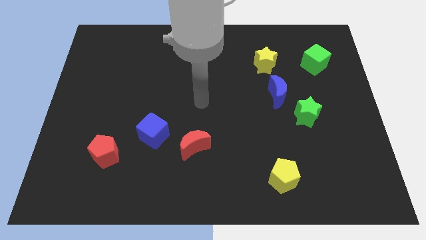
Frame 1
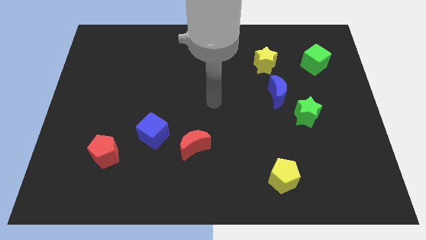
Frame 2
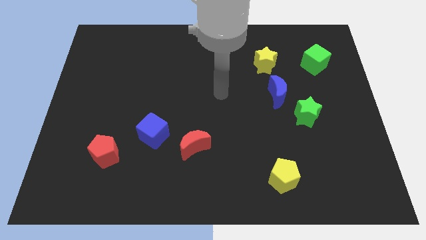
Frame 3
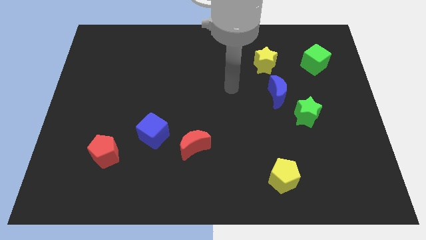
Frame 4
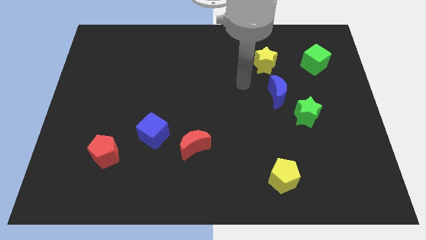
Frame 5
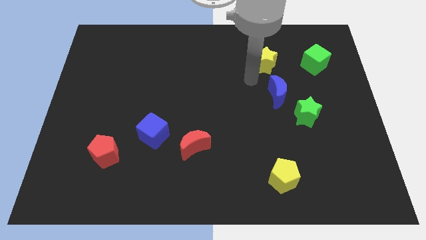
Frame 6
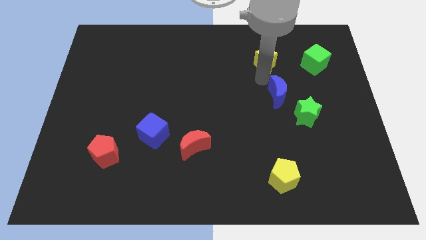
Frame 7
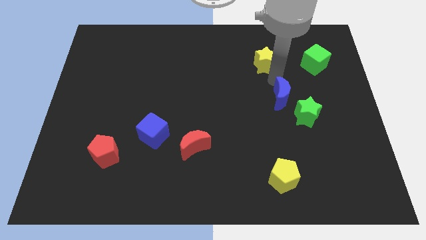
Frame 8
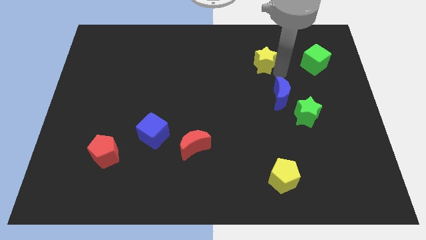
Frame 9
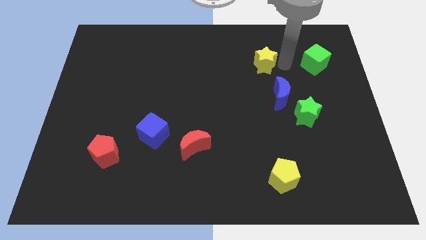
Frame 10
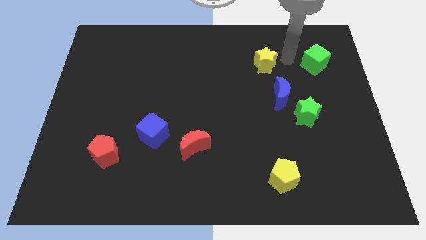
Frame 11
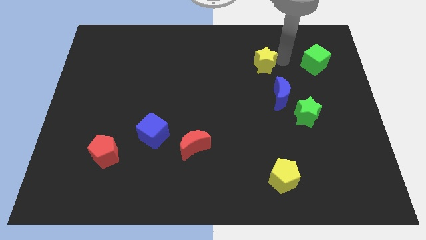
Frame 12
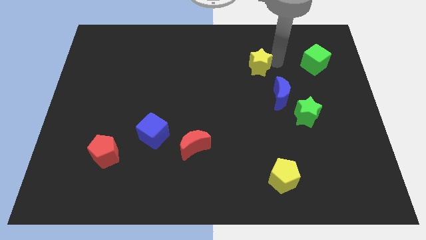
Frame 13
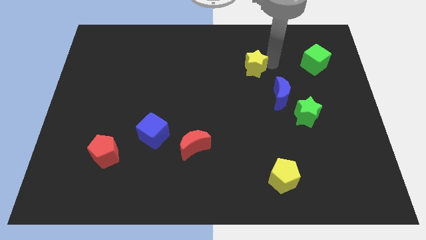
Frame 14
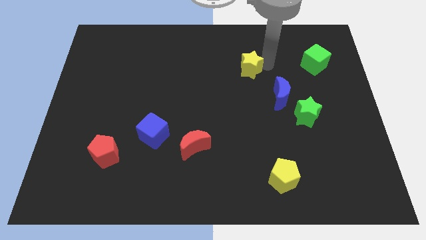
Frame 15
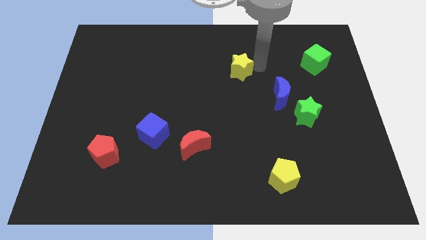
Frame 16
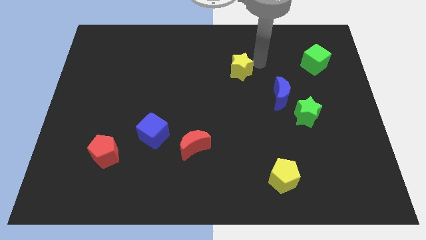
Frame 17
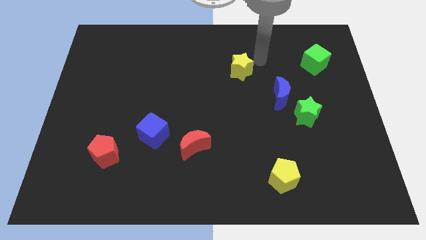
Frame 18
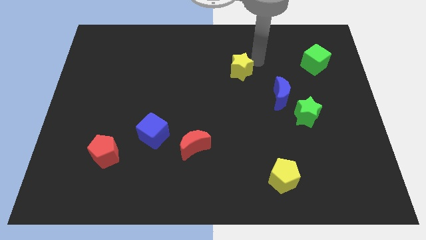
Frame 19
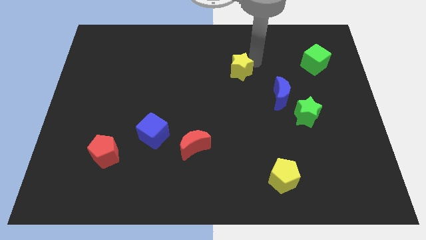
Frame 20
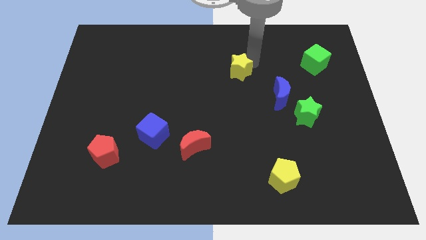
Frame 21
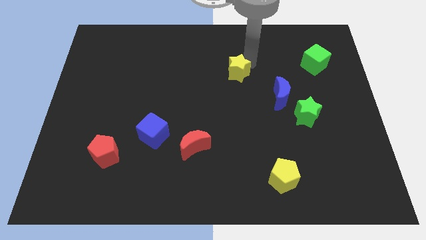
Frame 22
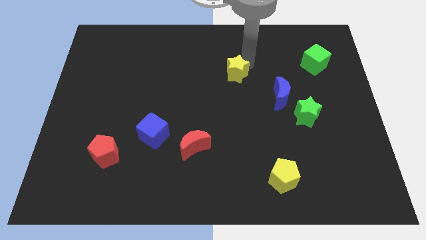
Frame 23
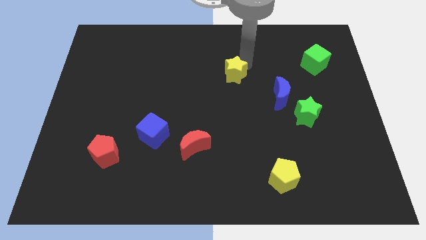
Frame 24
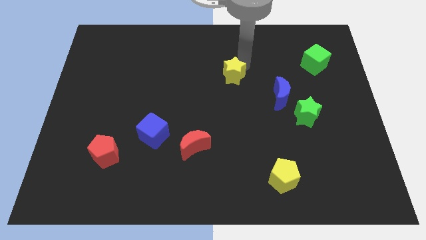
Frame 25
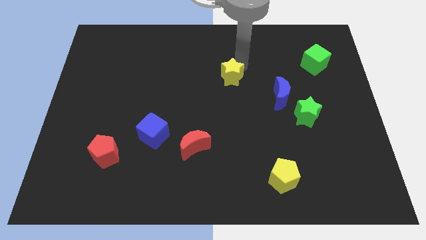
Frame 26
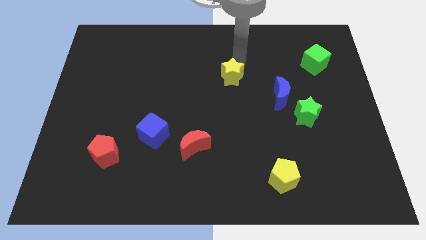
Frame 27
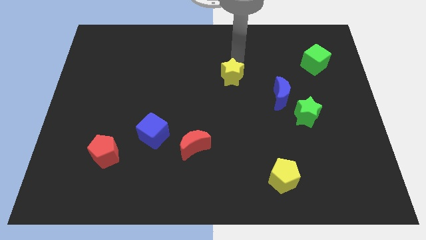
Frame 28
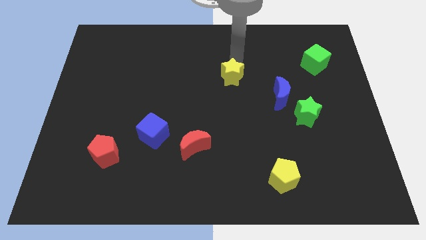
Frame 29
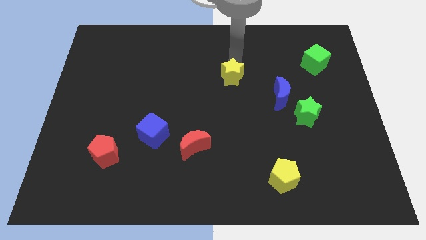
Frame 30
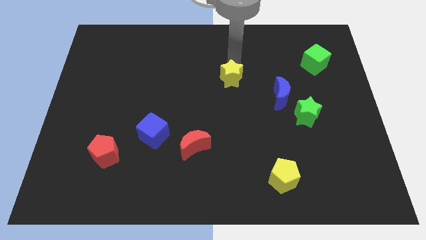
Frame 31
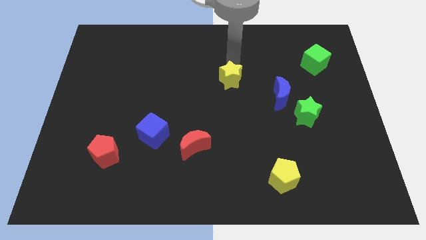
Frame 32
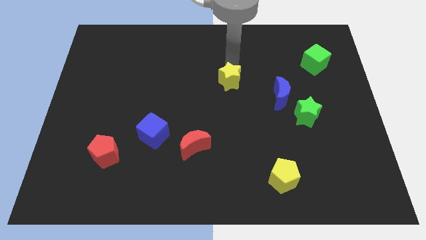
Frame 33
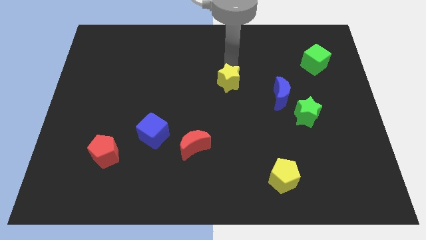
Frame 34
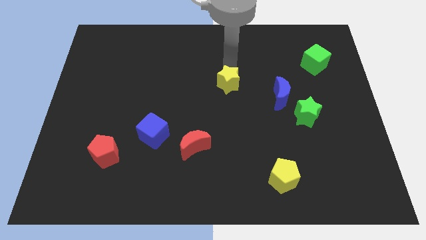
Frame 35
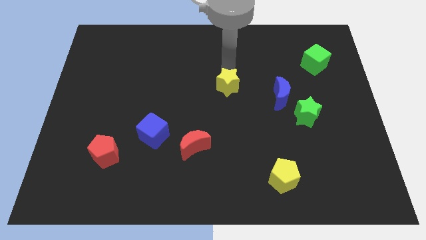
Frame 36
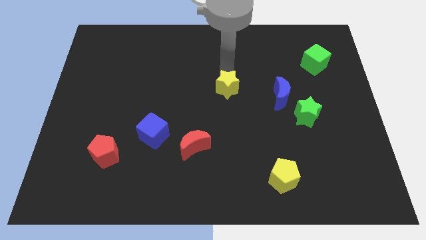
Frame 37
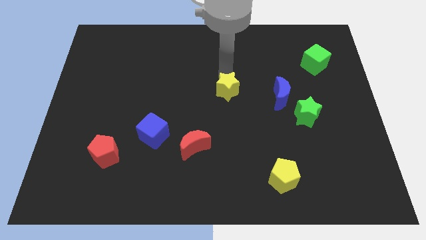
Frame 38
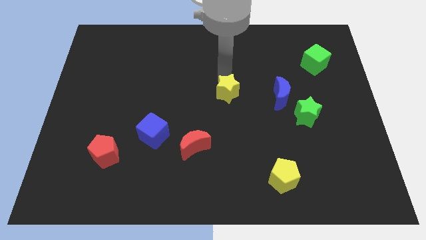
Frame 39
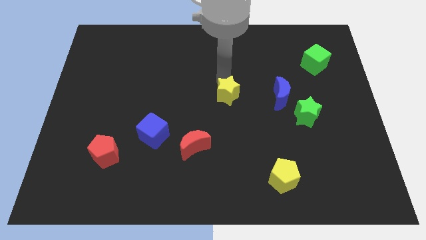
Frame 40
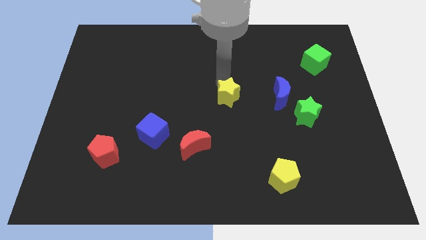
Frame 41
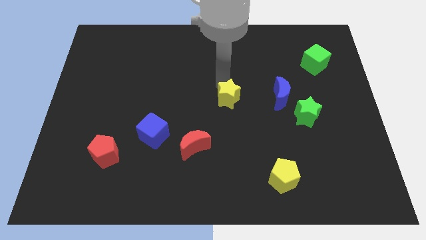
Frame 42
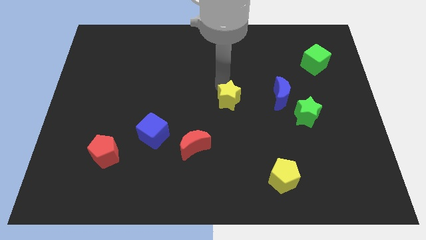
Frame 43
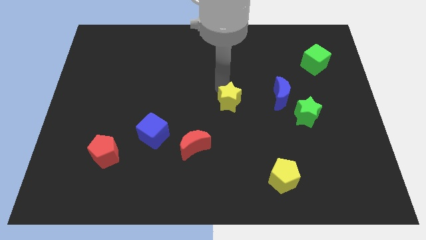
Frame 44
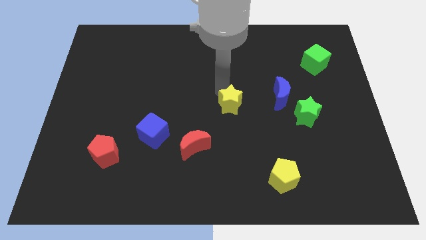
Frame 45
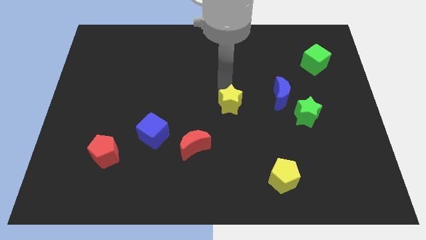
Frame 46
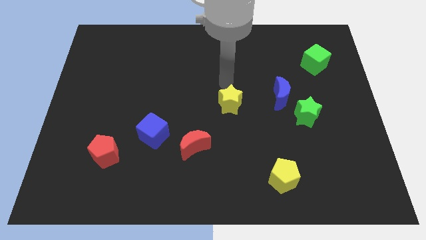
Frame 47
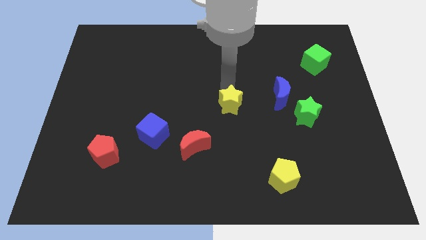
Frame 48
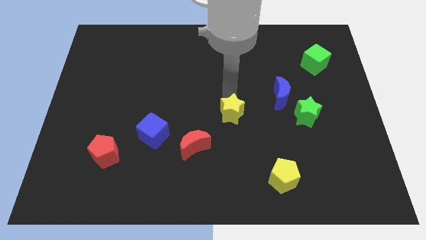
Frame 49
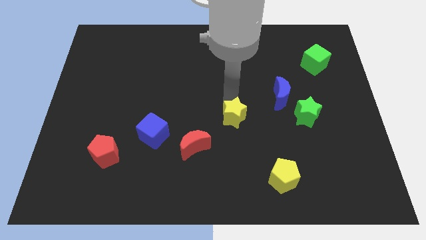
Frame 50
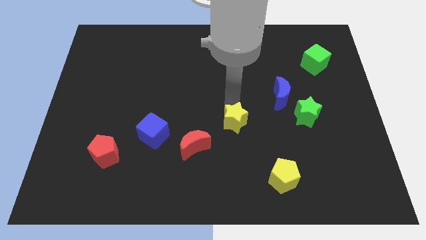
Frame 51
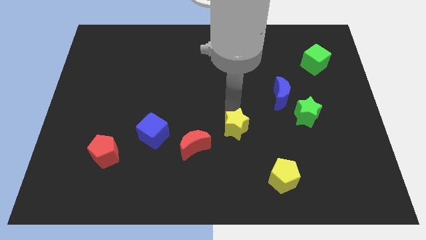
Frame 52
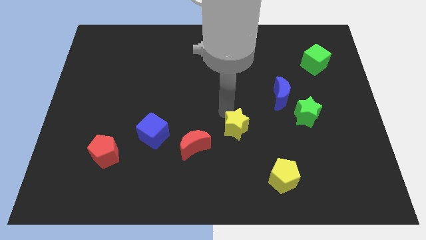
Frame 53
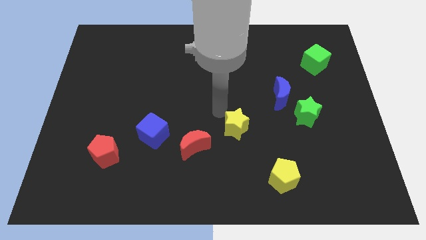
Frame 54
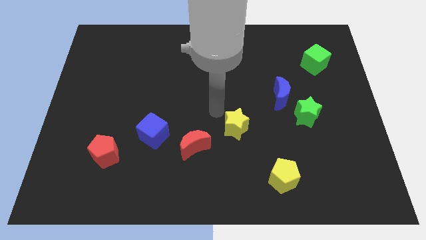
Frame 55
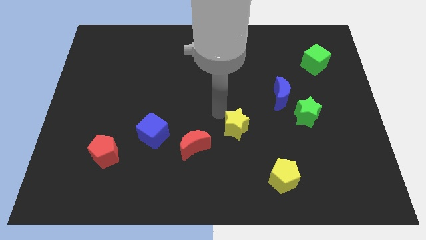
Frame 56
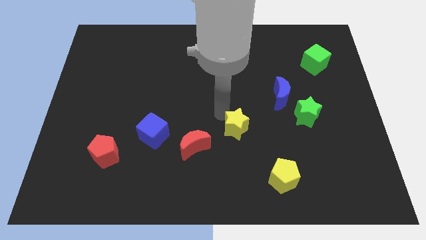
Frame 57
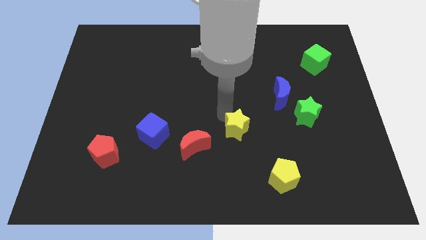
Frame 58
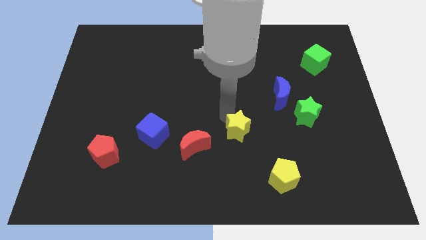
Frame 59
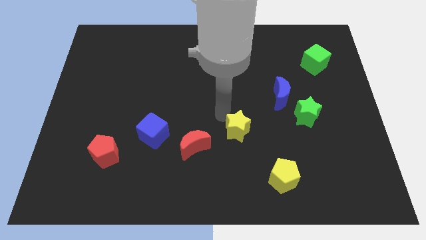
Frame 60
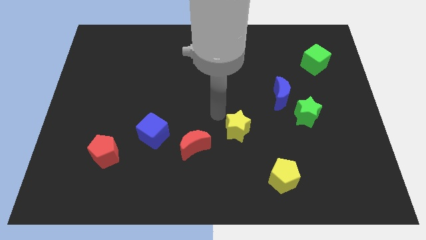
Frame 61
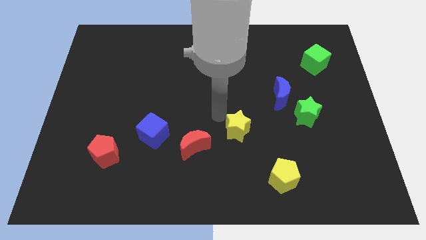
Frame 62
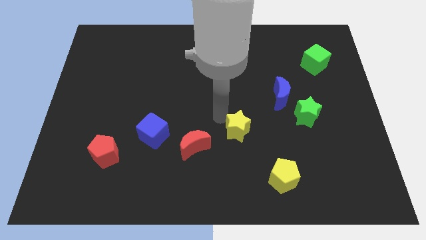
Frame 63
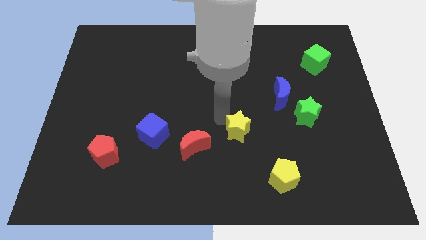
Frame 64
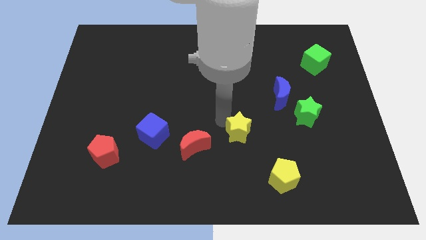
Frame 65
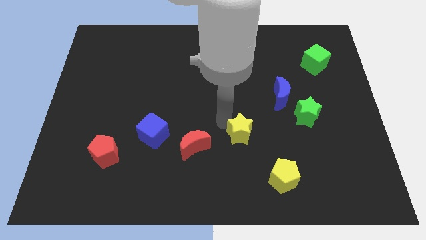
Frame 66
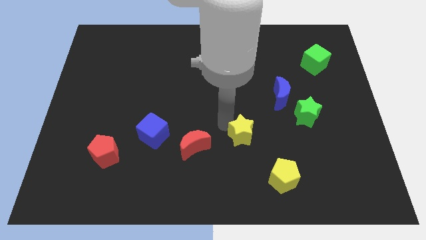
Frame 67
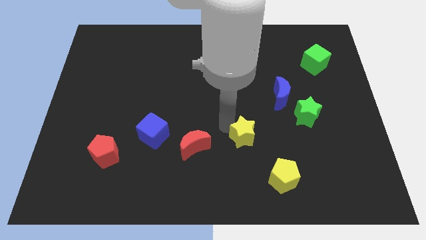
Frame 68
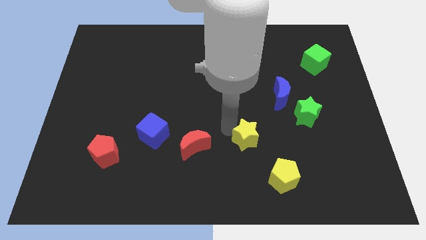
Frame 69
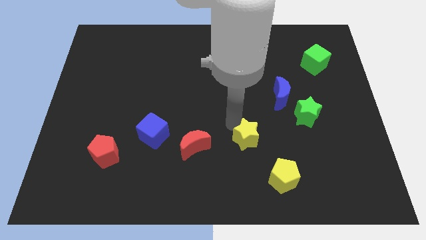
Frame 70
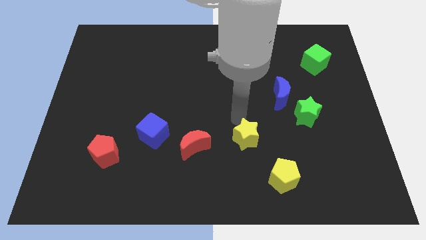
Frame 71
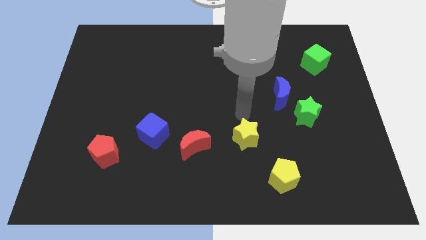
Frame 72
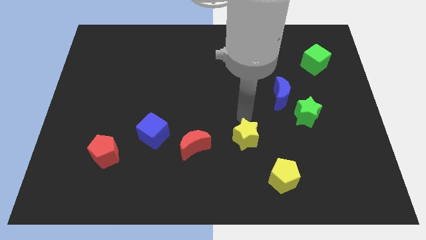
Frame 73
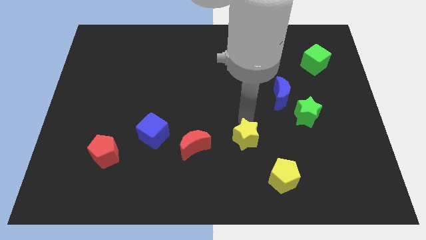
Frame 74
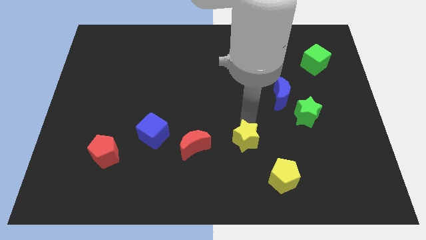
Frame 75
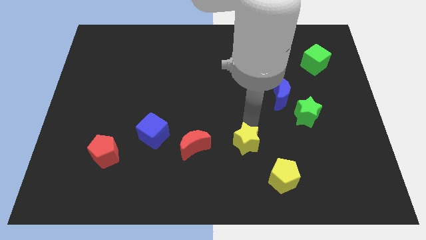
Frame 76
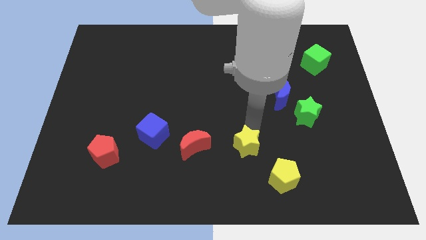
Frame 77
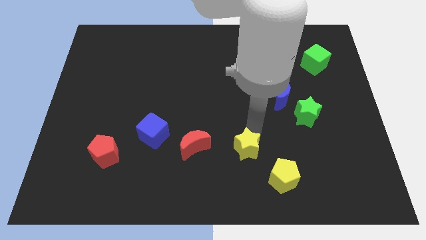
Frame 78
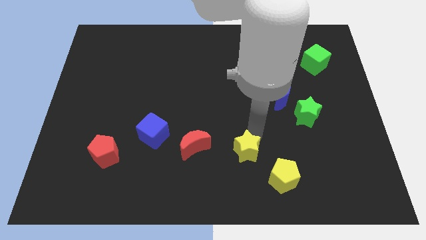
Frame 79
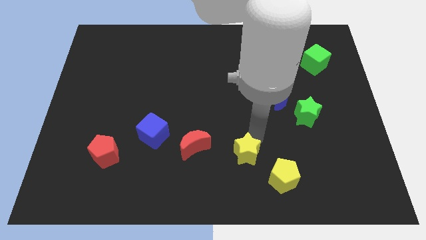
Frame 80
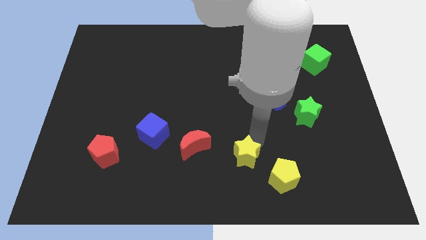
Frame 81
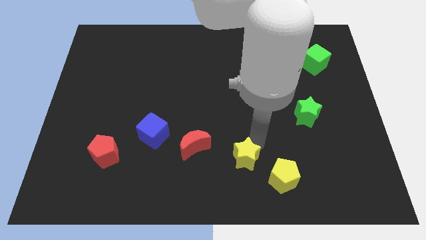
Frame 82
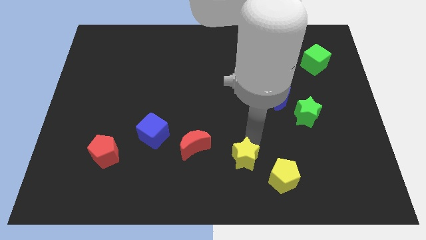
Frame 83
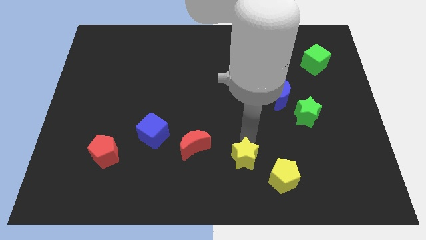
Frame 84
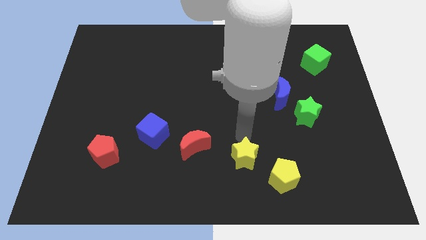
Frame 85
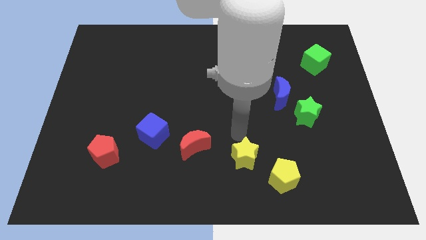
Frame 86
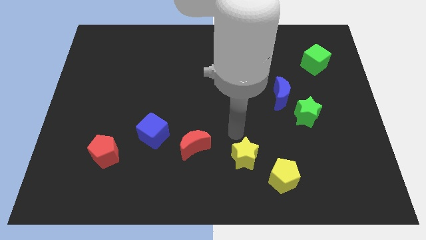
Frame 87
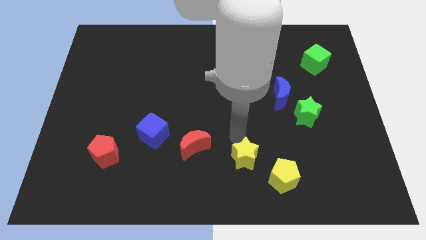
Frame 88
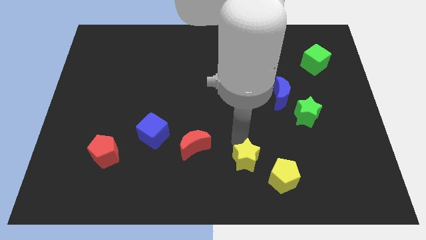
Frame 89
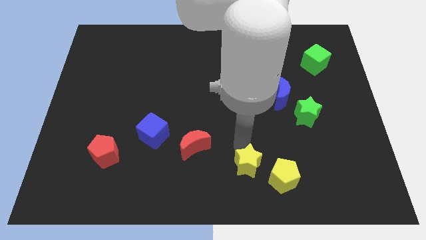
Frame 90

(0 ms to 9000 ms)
move the yellow star to the bottom side
